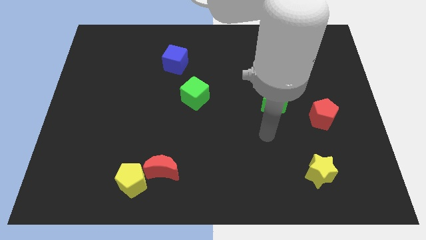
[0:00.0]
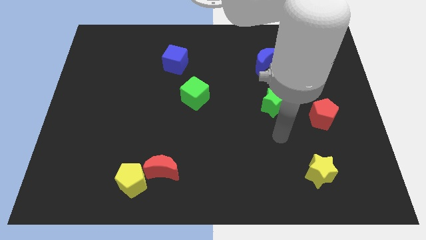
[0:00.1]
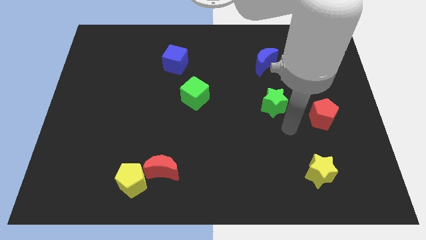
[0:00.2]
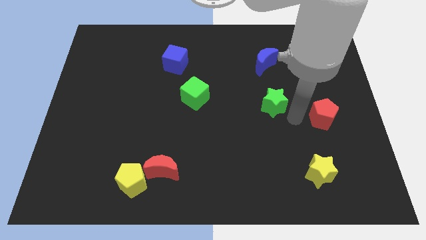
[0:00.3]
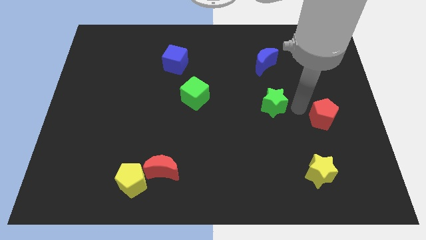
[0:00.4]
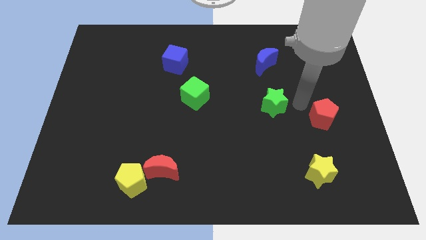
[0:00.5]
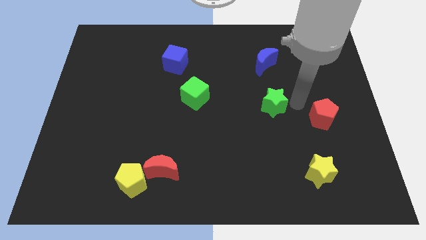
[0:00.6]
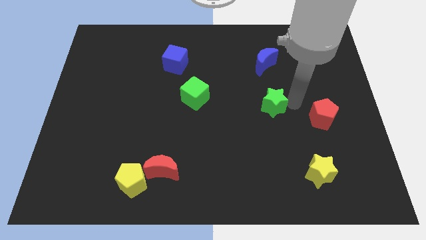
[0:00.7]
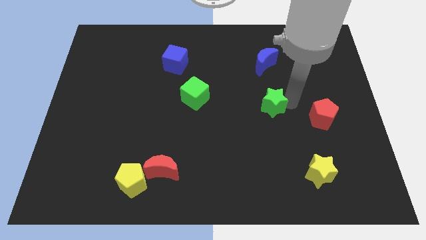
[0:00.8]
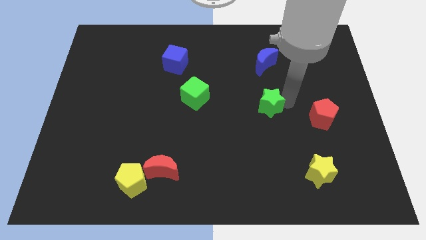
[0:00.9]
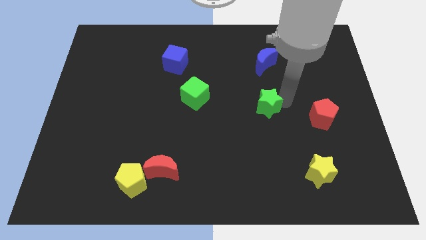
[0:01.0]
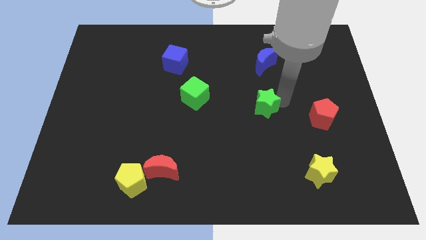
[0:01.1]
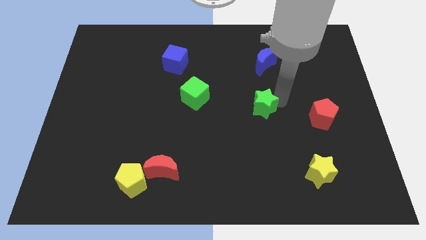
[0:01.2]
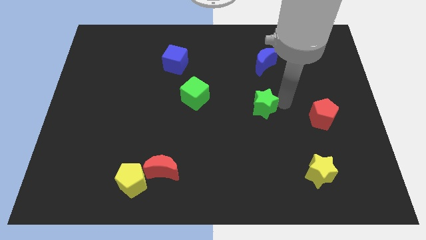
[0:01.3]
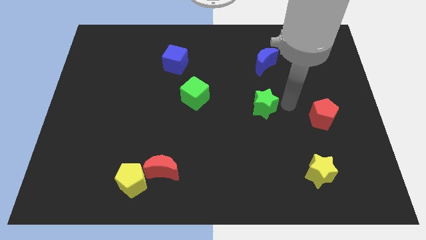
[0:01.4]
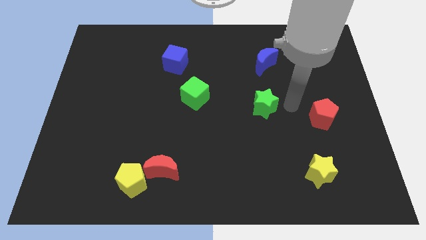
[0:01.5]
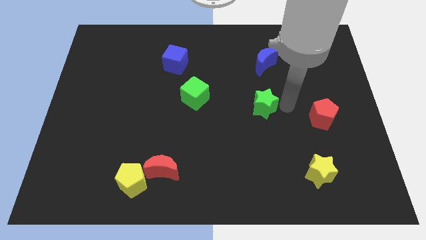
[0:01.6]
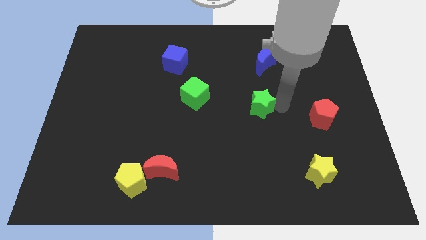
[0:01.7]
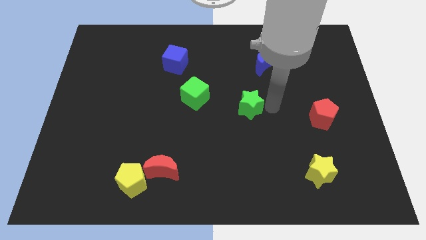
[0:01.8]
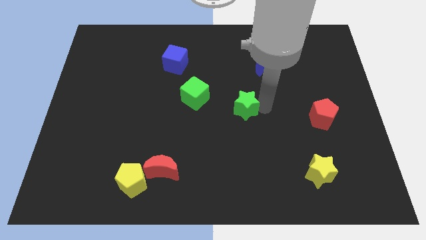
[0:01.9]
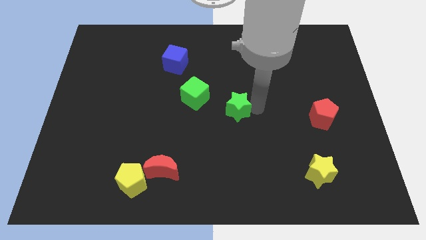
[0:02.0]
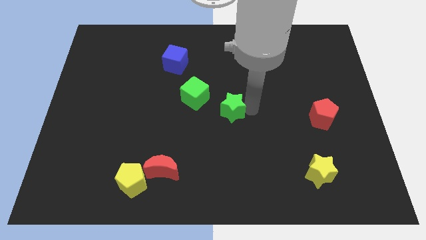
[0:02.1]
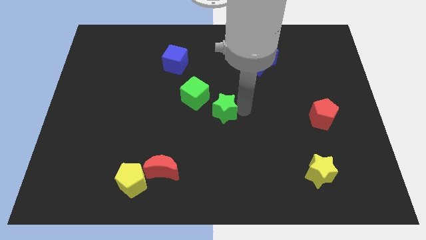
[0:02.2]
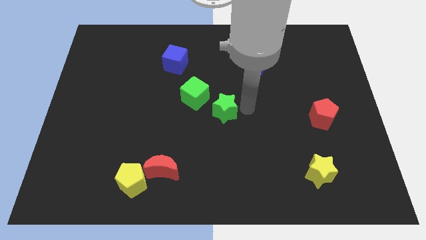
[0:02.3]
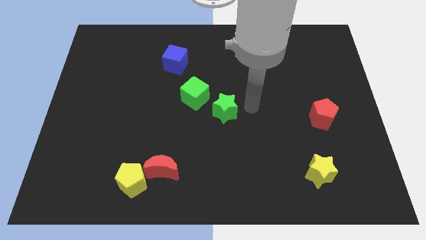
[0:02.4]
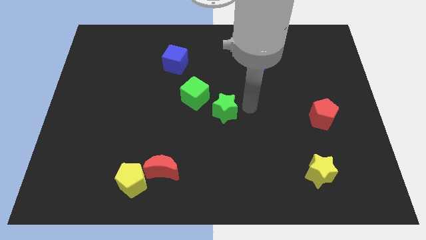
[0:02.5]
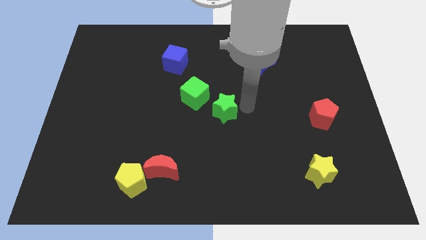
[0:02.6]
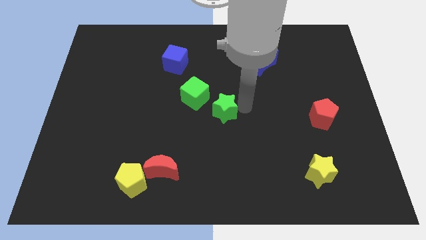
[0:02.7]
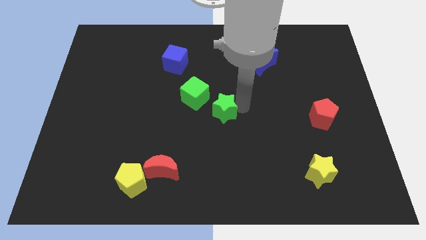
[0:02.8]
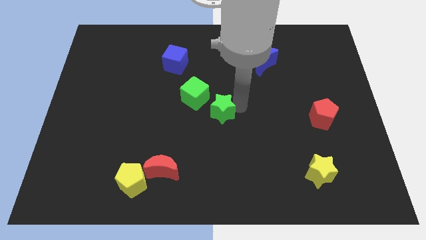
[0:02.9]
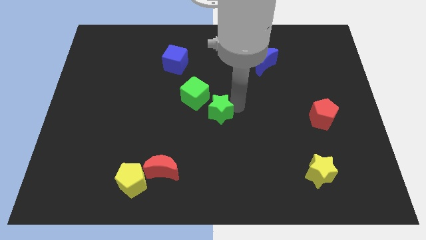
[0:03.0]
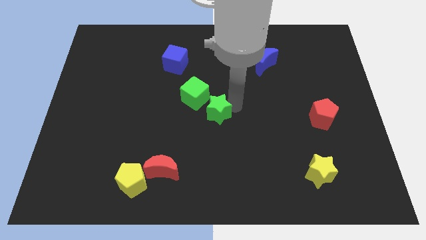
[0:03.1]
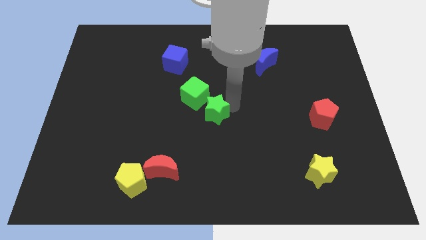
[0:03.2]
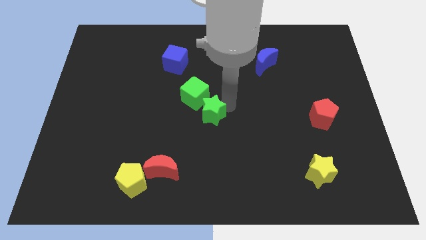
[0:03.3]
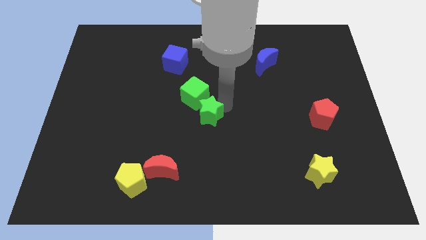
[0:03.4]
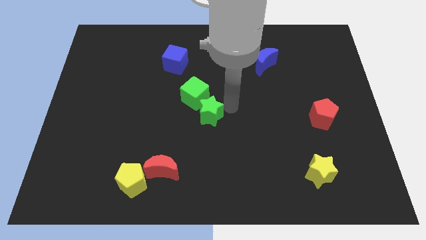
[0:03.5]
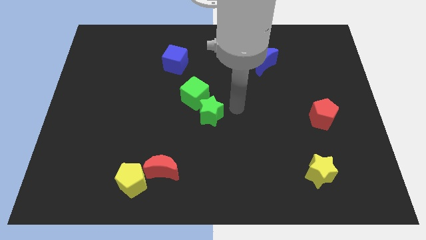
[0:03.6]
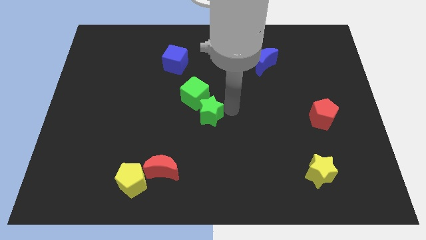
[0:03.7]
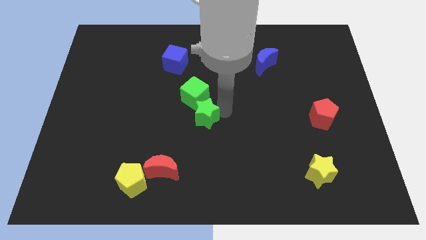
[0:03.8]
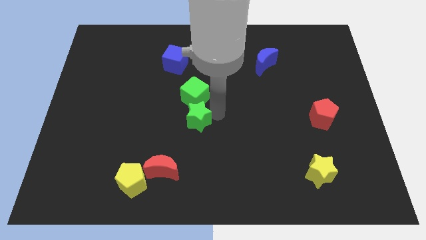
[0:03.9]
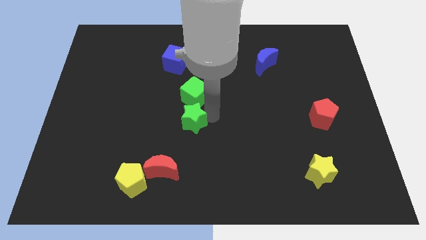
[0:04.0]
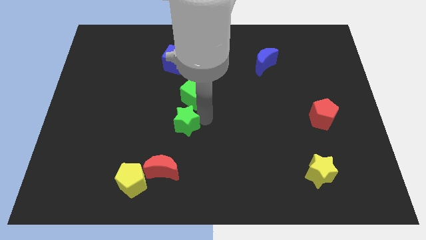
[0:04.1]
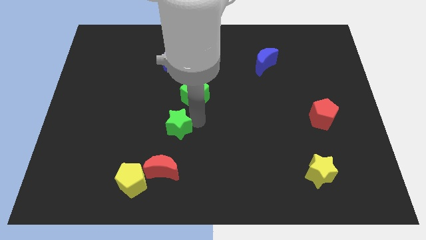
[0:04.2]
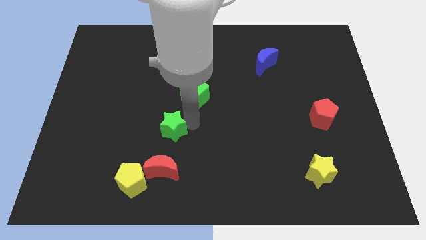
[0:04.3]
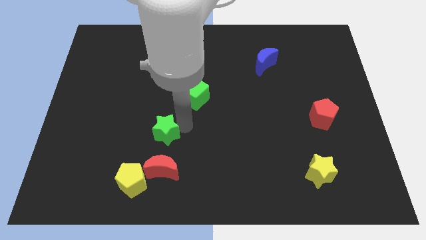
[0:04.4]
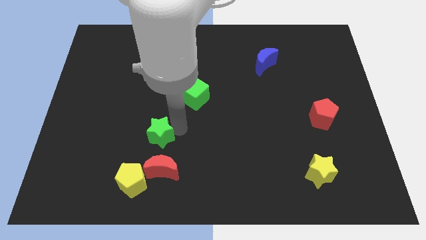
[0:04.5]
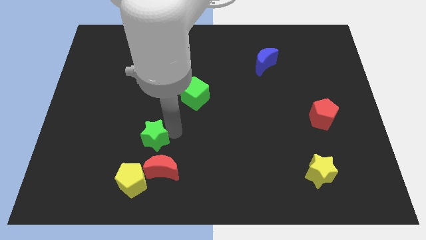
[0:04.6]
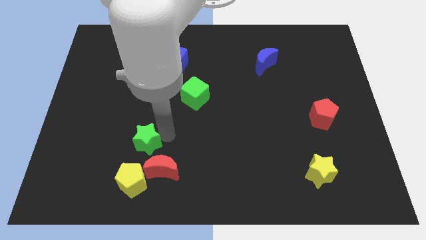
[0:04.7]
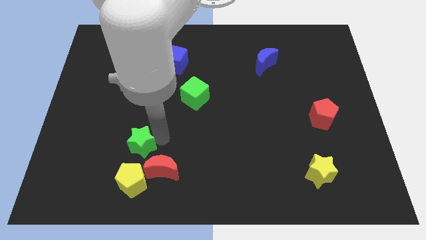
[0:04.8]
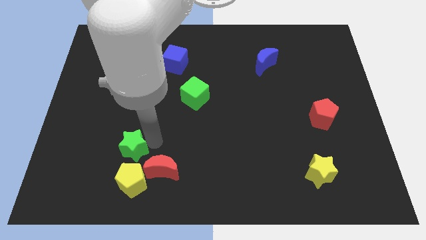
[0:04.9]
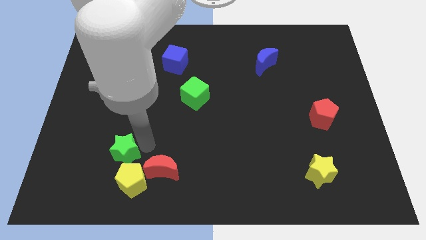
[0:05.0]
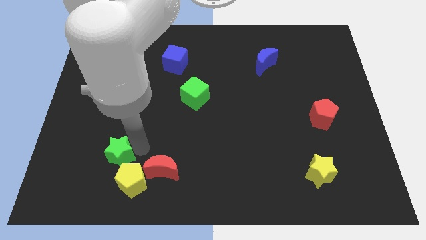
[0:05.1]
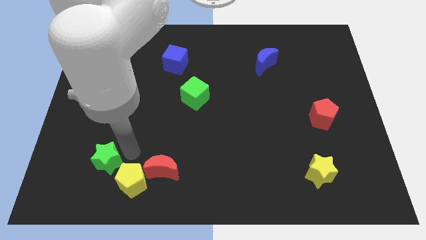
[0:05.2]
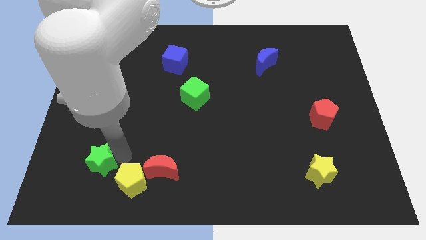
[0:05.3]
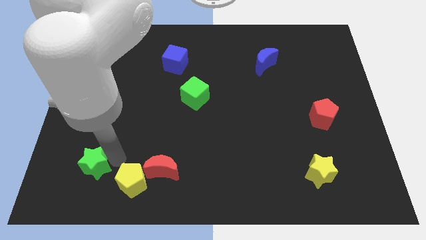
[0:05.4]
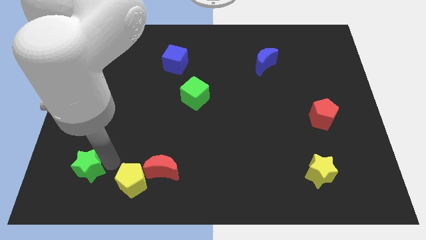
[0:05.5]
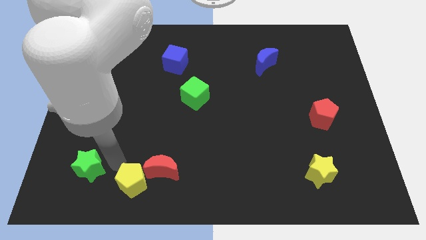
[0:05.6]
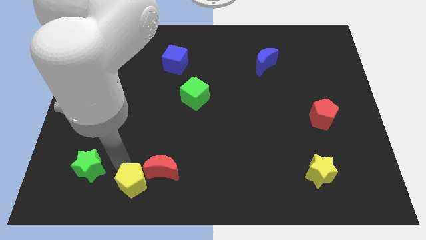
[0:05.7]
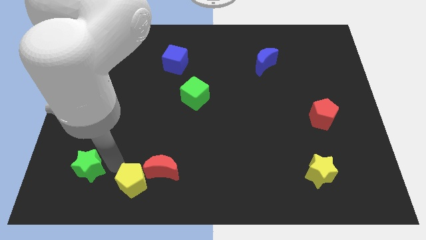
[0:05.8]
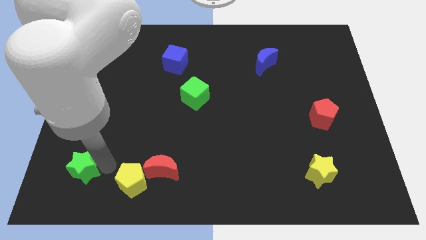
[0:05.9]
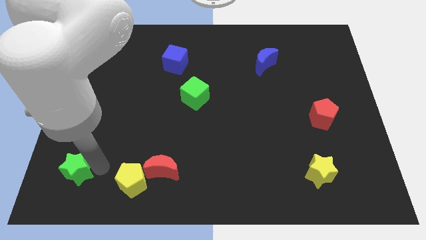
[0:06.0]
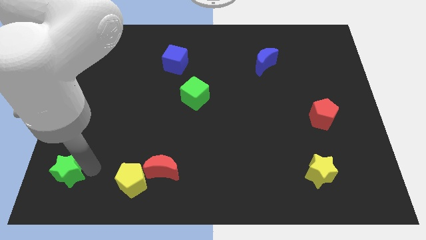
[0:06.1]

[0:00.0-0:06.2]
push the green star to the bottom left
